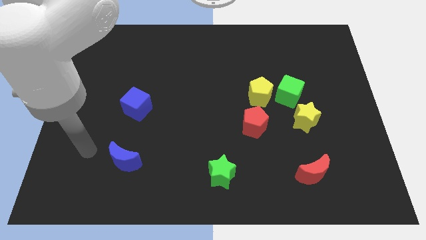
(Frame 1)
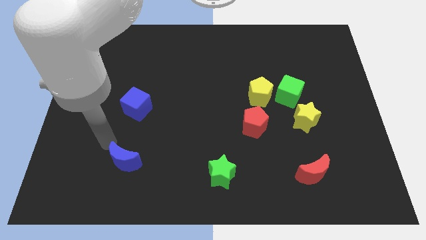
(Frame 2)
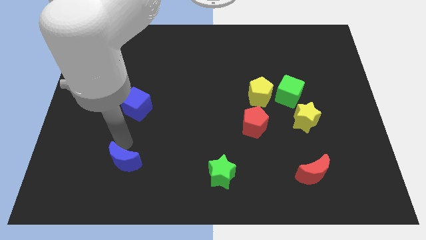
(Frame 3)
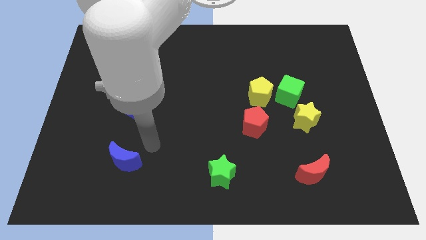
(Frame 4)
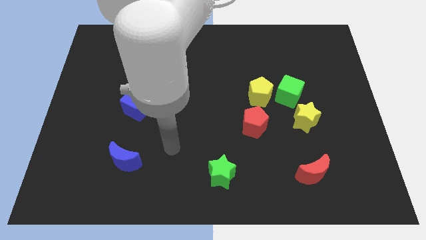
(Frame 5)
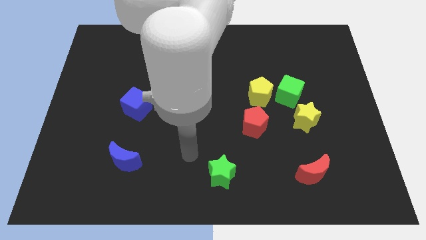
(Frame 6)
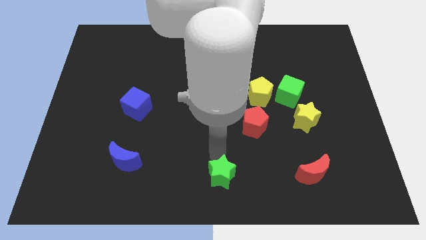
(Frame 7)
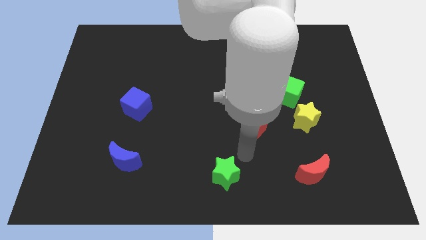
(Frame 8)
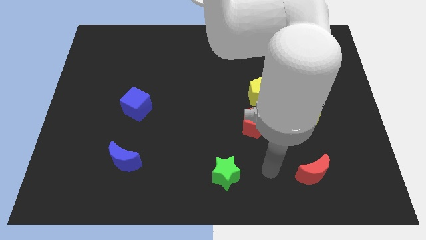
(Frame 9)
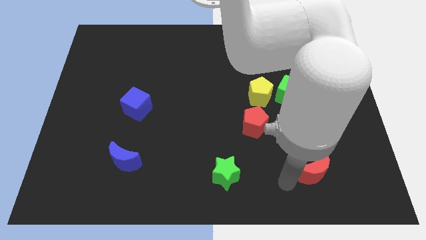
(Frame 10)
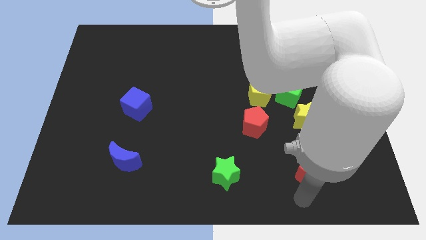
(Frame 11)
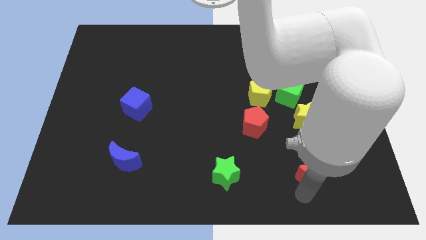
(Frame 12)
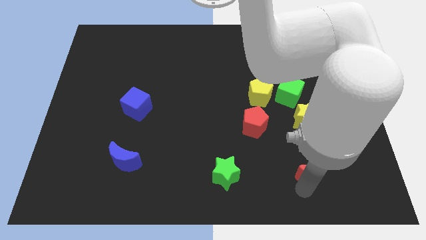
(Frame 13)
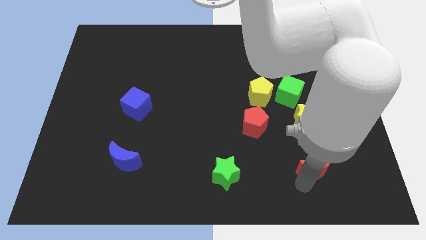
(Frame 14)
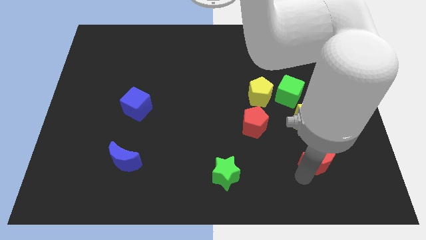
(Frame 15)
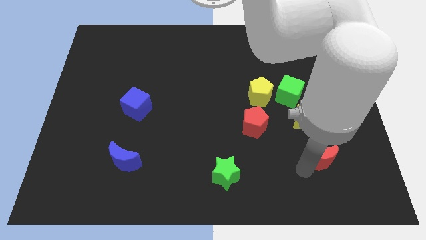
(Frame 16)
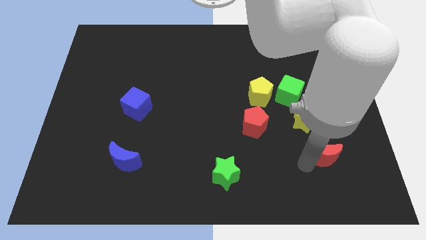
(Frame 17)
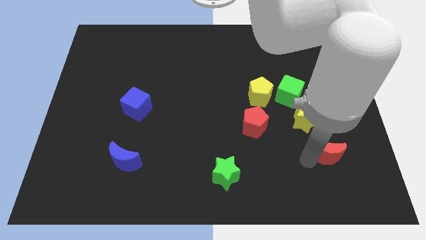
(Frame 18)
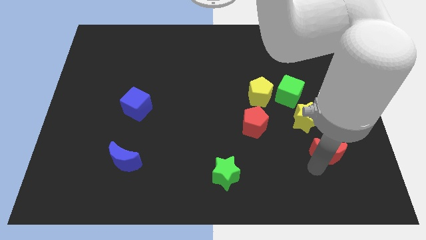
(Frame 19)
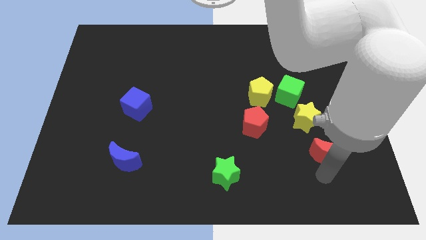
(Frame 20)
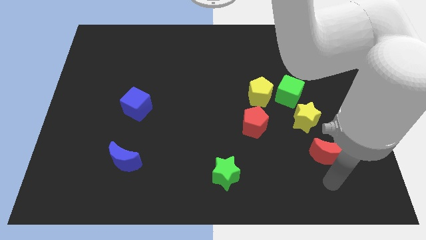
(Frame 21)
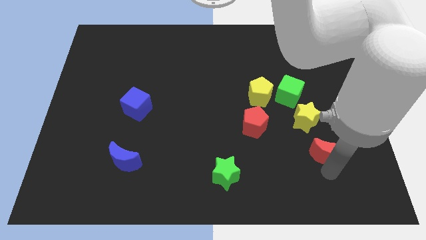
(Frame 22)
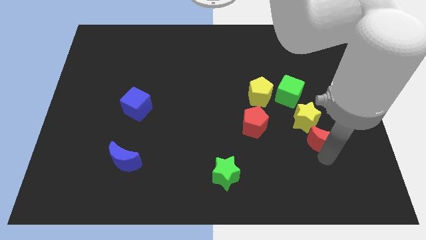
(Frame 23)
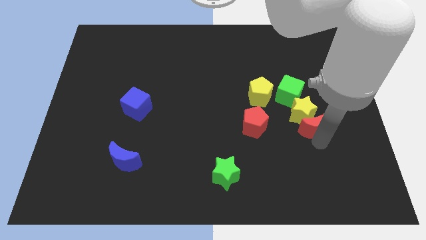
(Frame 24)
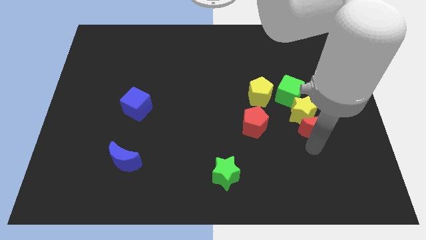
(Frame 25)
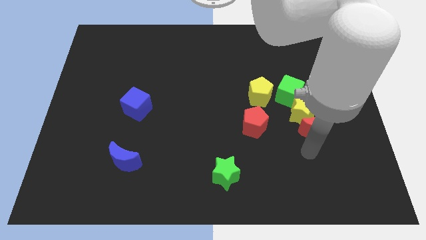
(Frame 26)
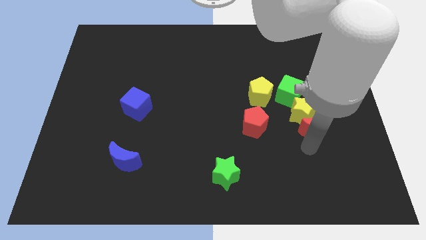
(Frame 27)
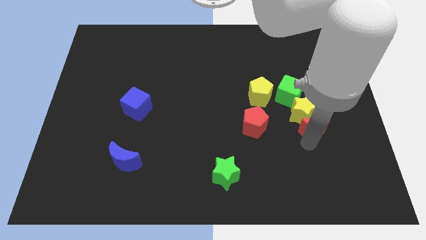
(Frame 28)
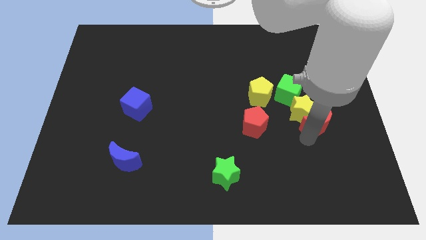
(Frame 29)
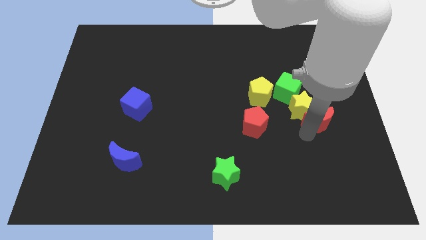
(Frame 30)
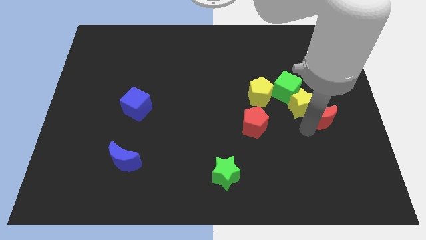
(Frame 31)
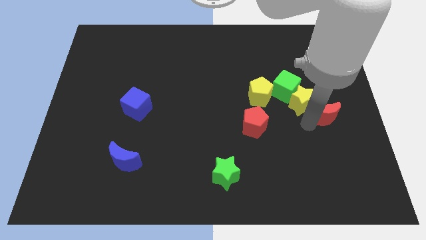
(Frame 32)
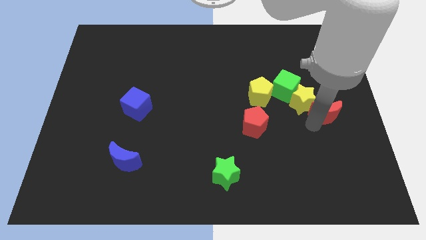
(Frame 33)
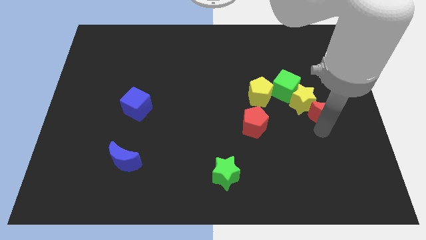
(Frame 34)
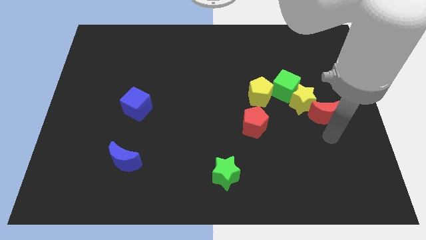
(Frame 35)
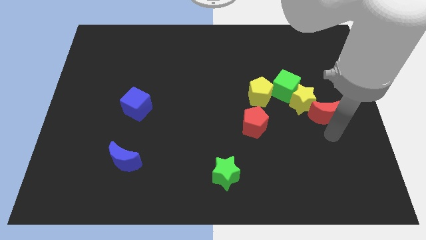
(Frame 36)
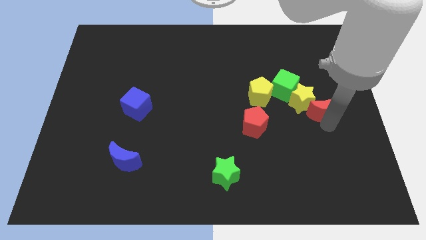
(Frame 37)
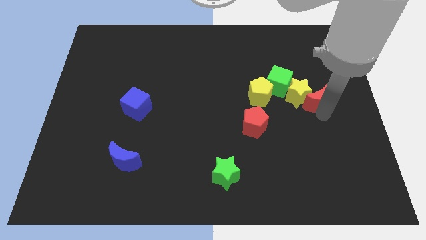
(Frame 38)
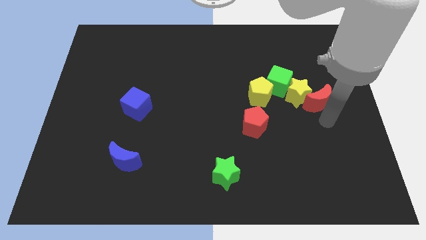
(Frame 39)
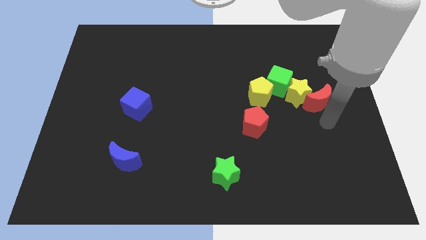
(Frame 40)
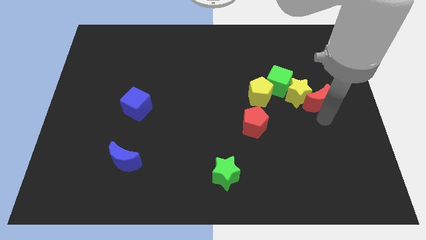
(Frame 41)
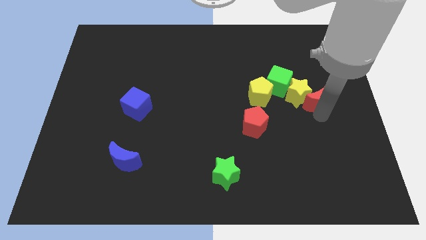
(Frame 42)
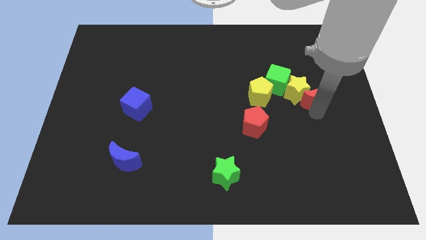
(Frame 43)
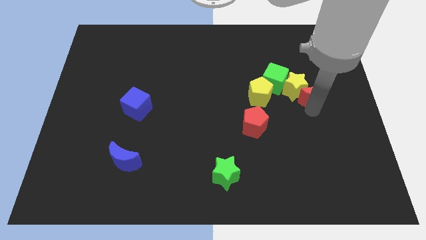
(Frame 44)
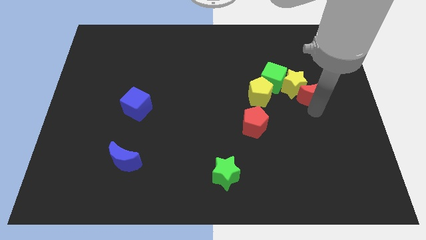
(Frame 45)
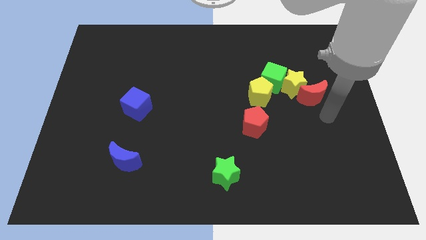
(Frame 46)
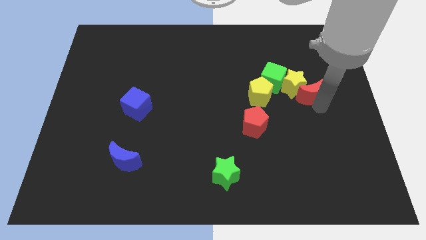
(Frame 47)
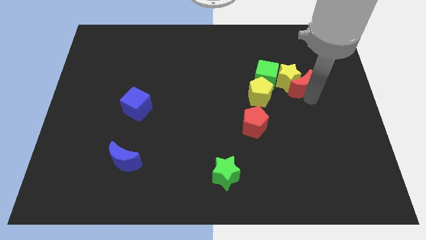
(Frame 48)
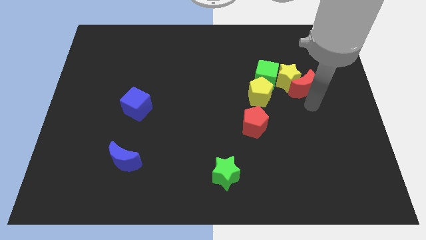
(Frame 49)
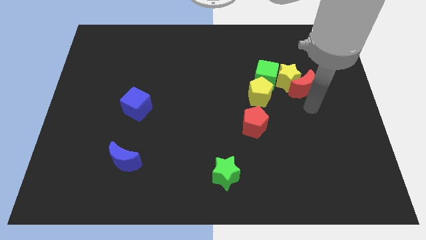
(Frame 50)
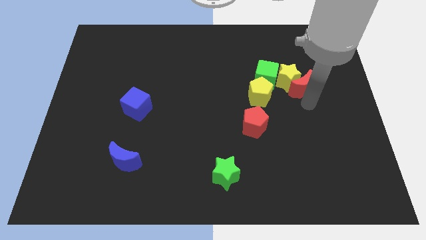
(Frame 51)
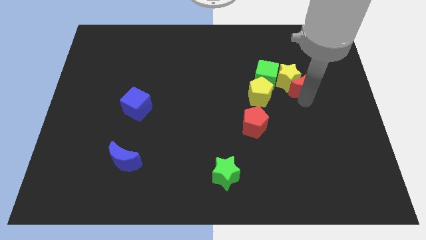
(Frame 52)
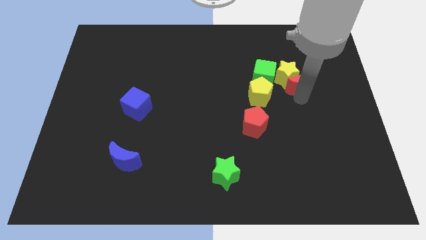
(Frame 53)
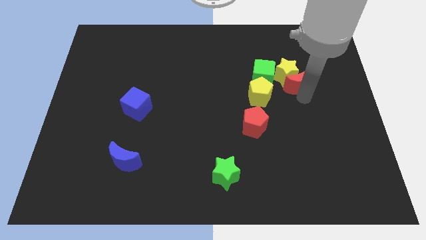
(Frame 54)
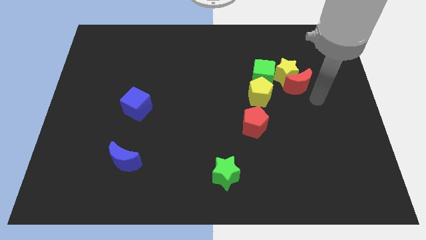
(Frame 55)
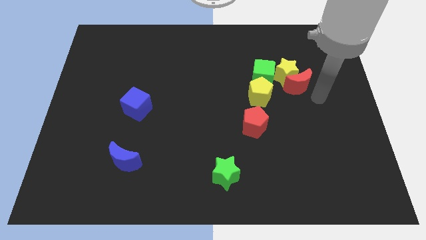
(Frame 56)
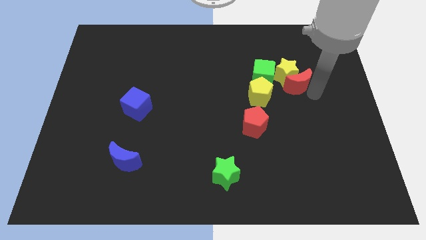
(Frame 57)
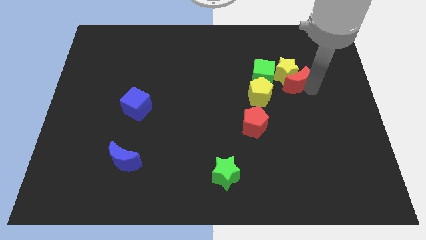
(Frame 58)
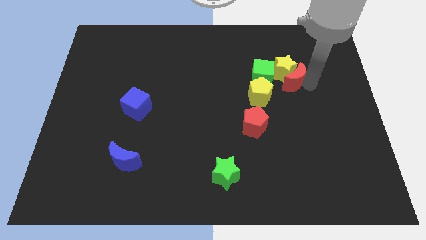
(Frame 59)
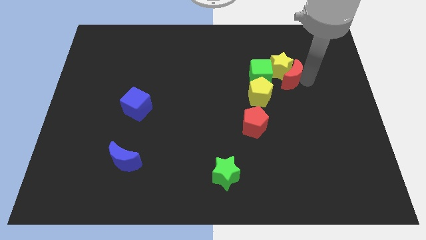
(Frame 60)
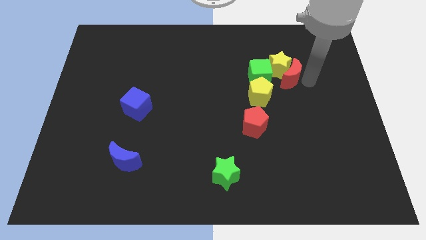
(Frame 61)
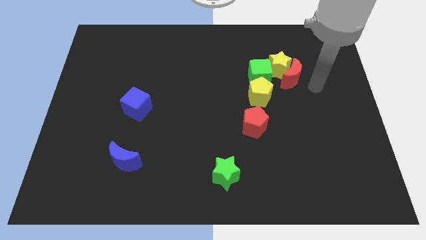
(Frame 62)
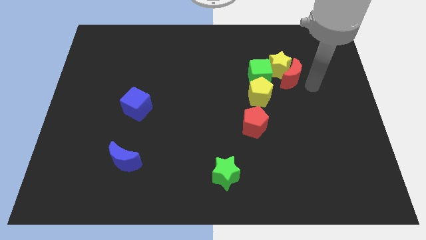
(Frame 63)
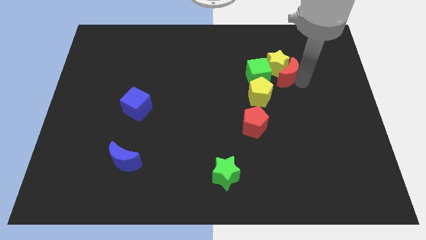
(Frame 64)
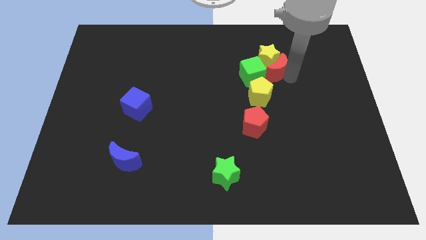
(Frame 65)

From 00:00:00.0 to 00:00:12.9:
push the red moon to the top side of the yellow pentagon

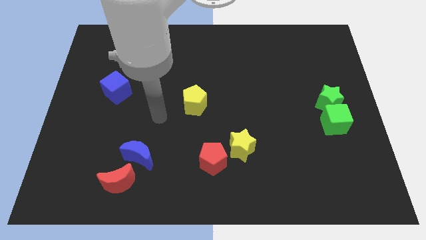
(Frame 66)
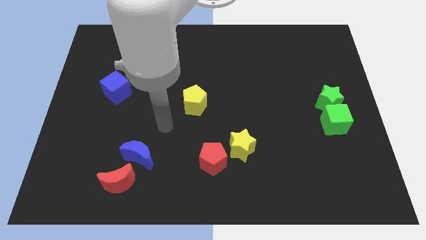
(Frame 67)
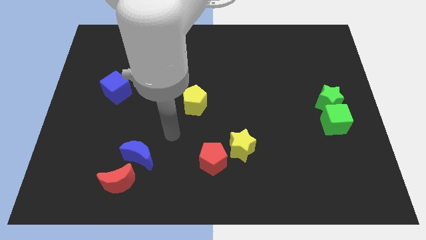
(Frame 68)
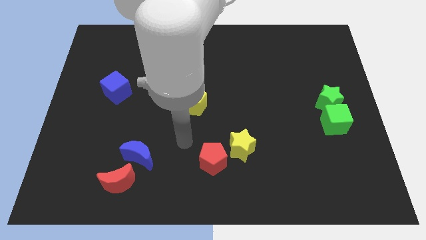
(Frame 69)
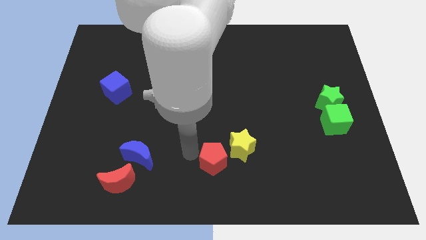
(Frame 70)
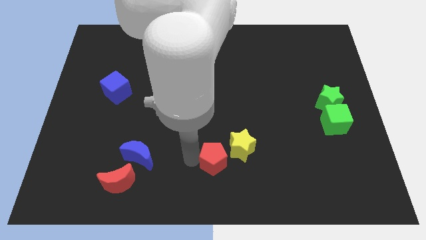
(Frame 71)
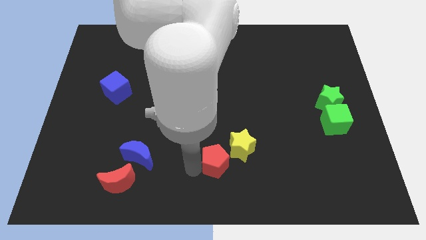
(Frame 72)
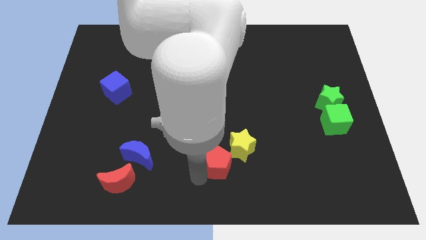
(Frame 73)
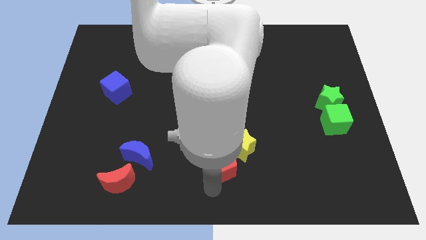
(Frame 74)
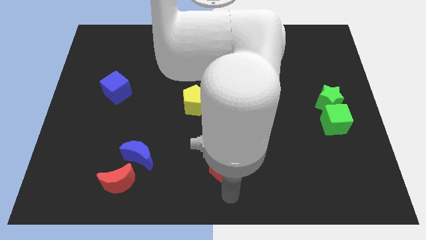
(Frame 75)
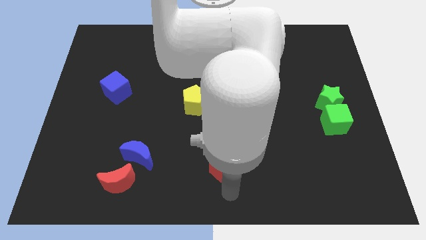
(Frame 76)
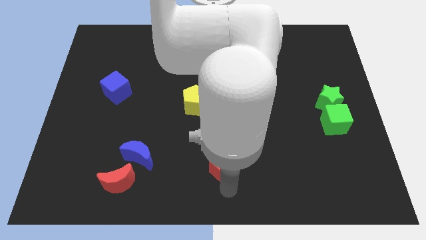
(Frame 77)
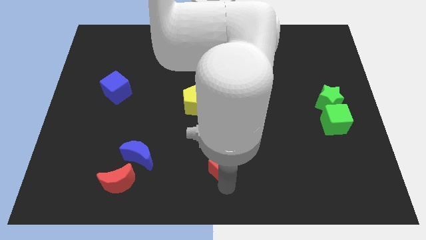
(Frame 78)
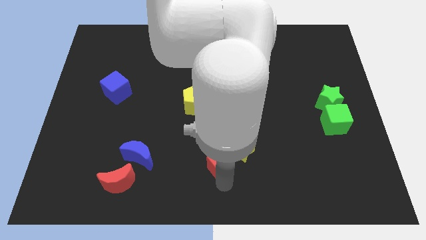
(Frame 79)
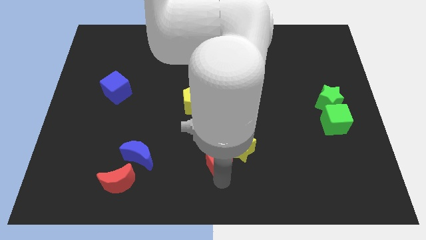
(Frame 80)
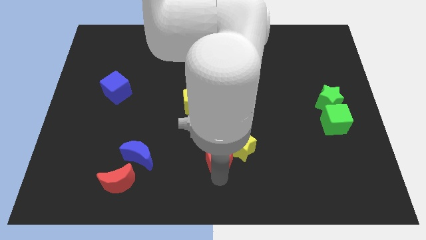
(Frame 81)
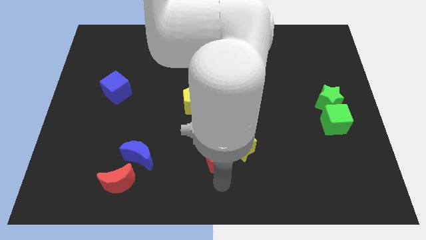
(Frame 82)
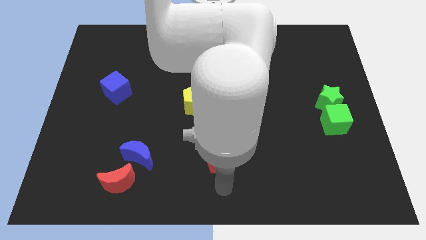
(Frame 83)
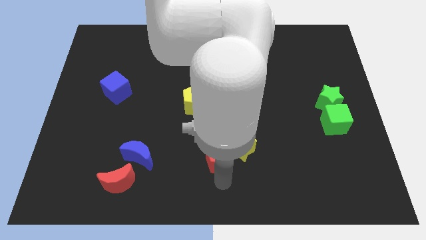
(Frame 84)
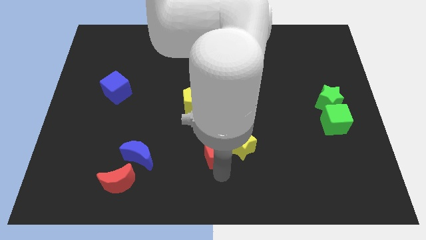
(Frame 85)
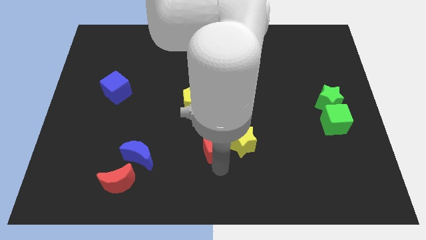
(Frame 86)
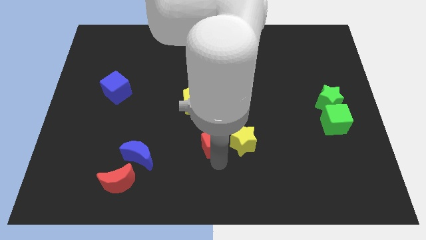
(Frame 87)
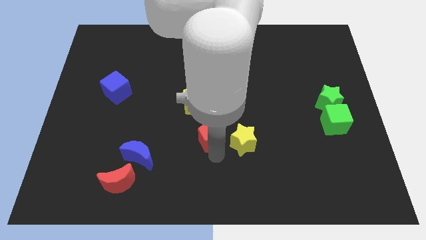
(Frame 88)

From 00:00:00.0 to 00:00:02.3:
move the red pentagon to the bottom right side of the yellow pentagon
